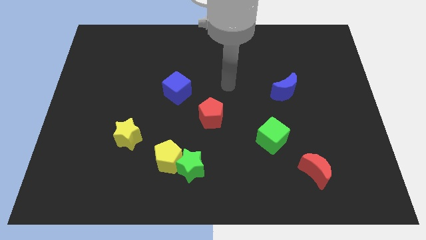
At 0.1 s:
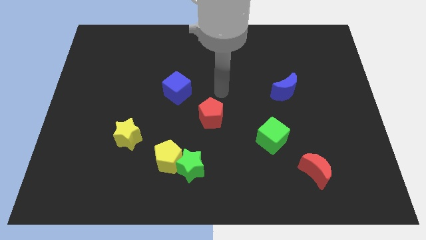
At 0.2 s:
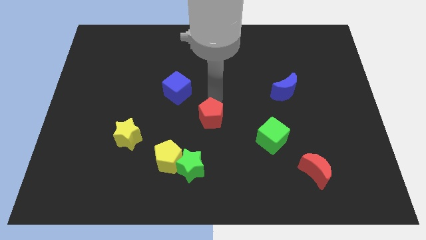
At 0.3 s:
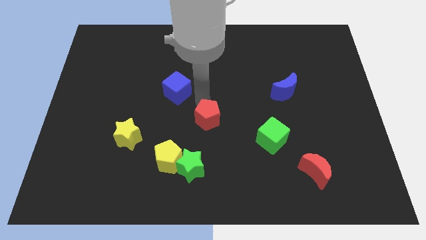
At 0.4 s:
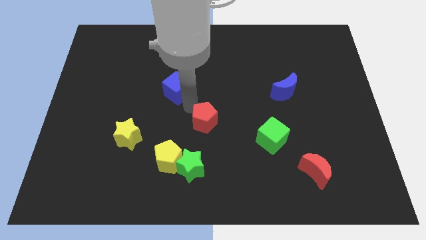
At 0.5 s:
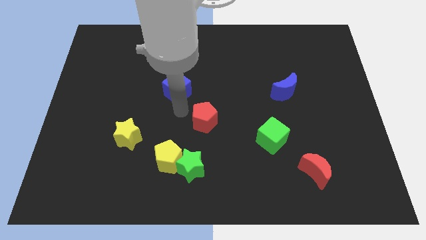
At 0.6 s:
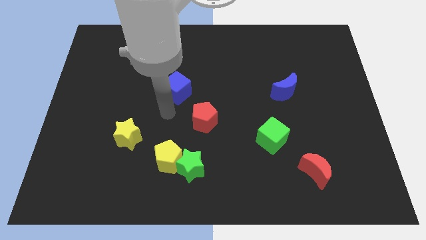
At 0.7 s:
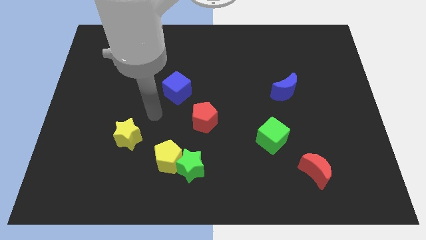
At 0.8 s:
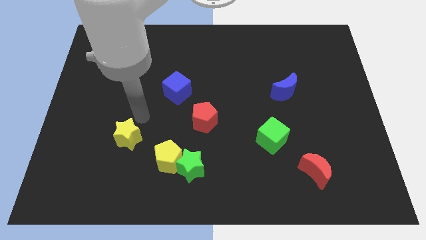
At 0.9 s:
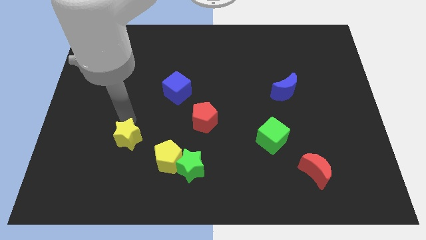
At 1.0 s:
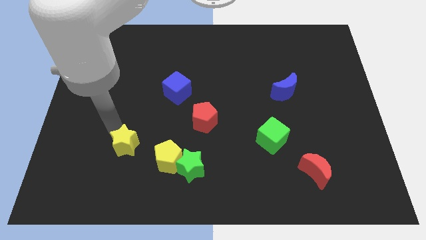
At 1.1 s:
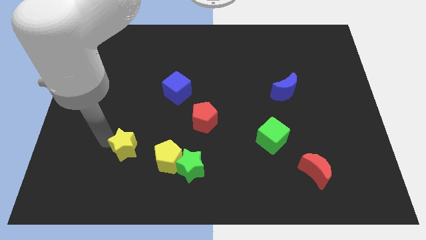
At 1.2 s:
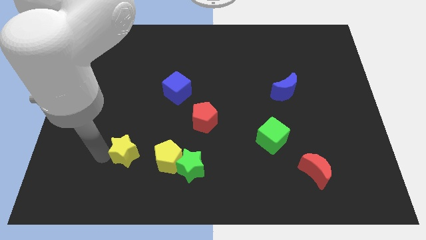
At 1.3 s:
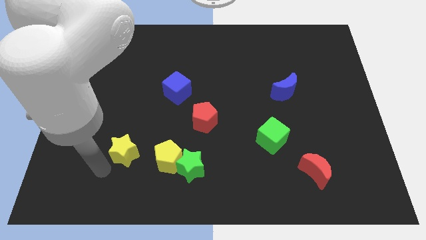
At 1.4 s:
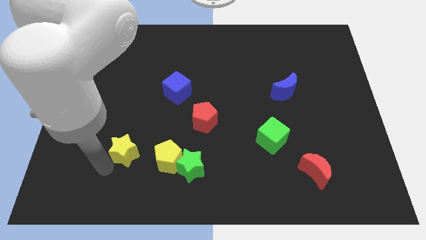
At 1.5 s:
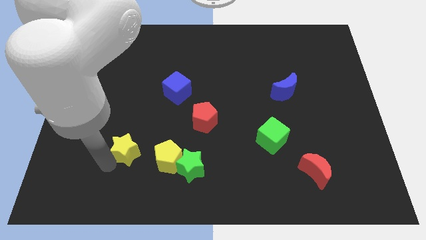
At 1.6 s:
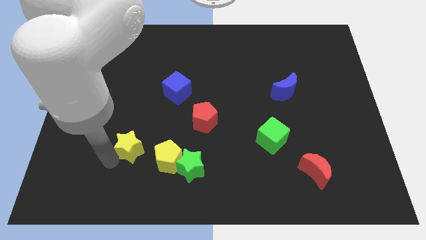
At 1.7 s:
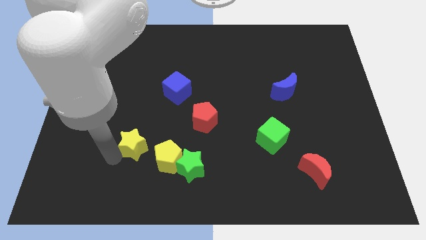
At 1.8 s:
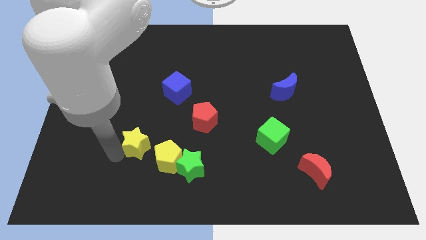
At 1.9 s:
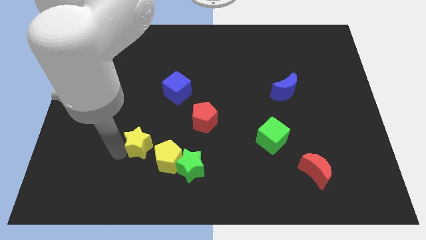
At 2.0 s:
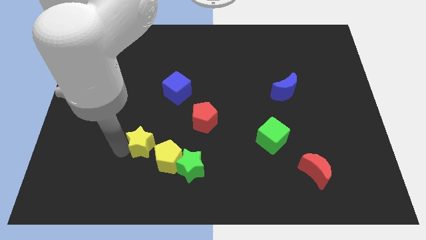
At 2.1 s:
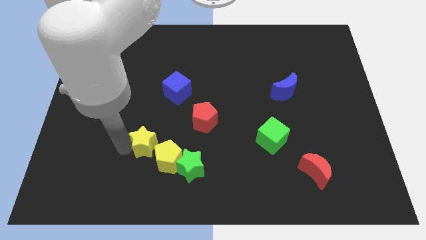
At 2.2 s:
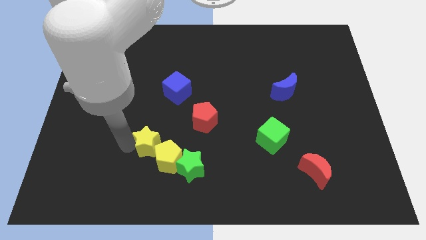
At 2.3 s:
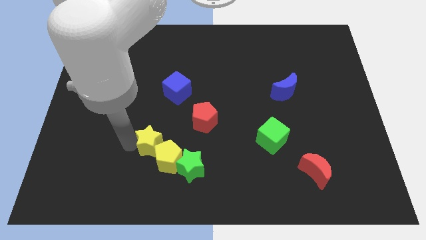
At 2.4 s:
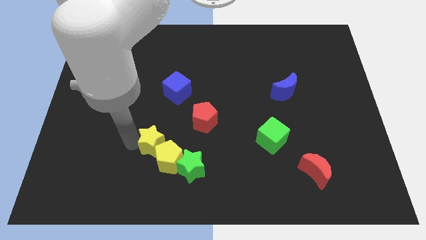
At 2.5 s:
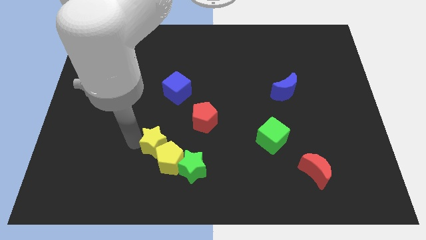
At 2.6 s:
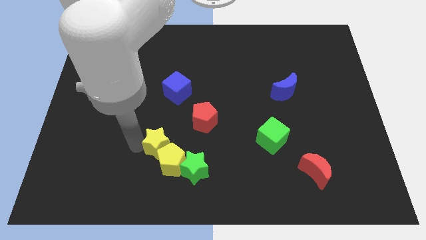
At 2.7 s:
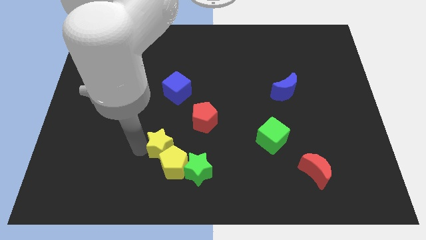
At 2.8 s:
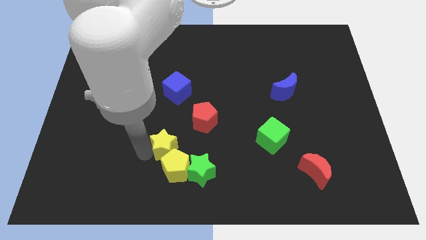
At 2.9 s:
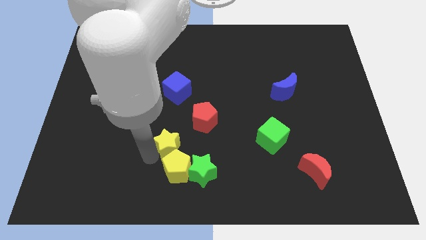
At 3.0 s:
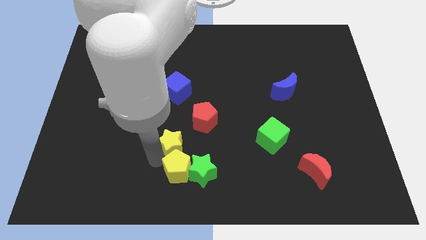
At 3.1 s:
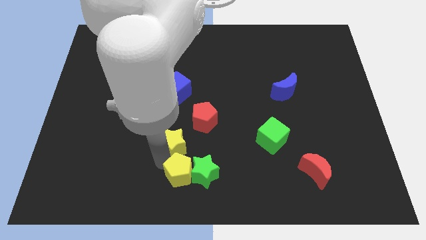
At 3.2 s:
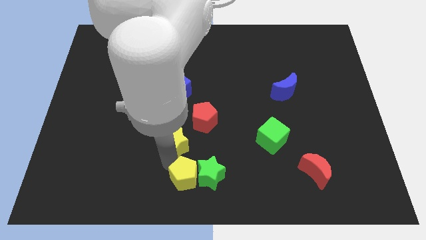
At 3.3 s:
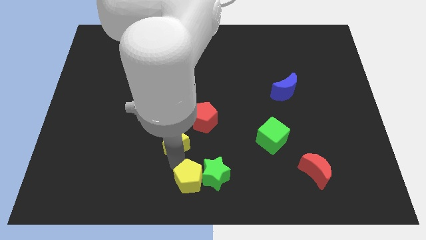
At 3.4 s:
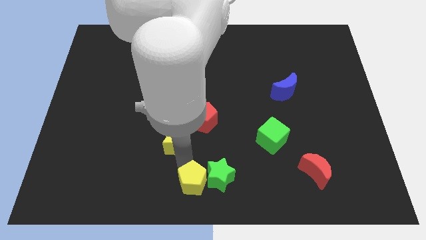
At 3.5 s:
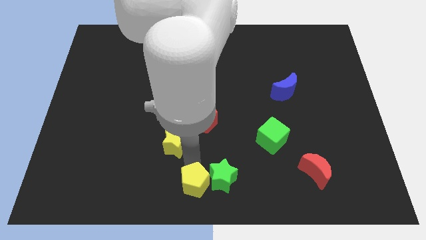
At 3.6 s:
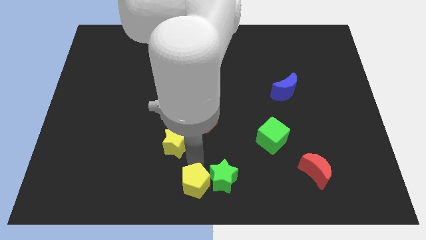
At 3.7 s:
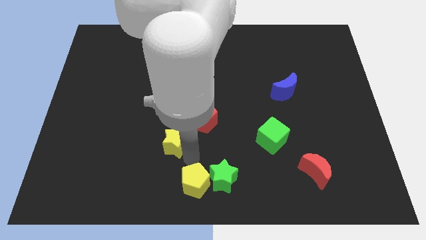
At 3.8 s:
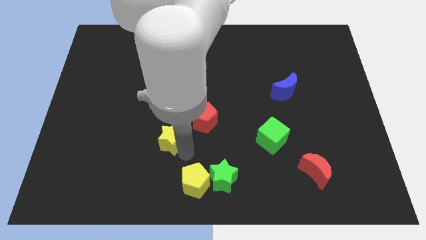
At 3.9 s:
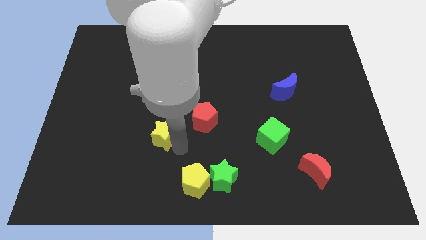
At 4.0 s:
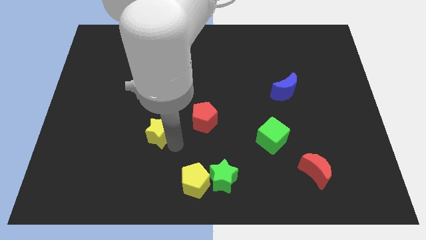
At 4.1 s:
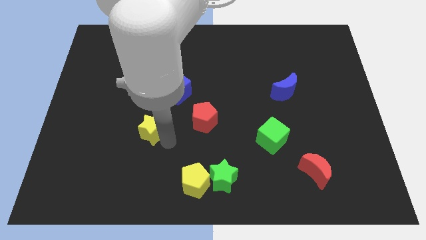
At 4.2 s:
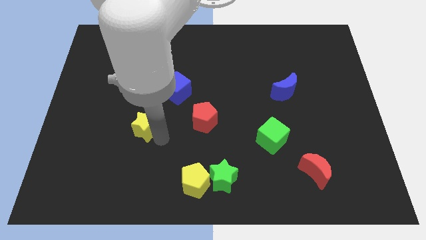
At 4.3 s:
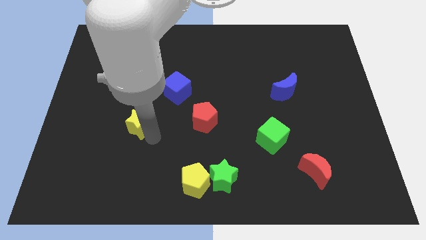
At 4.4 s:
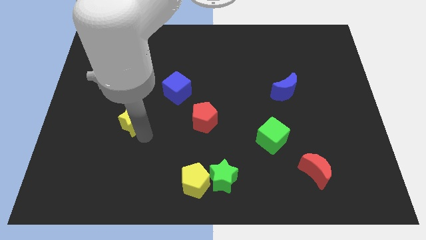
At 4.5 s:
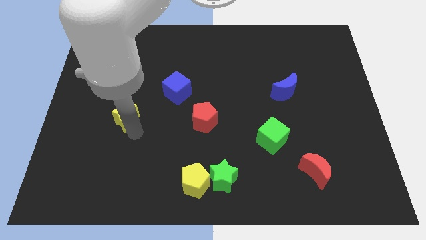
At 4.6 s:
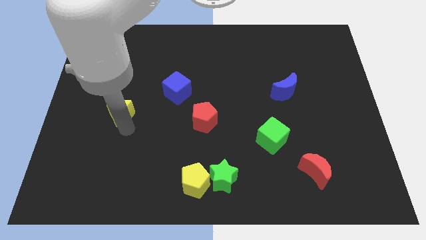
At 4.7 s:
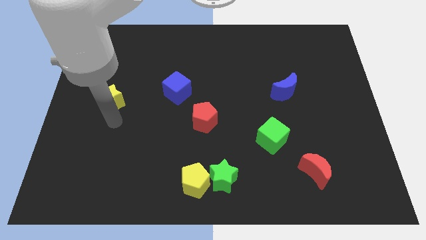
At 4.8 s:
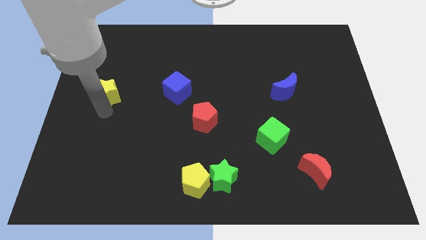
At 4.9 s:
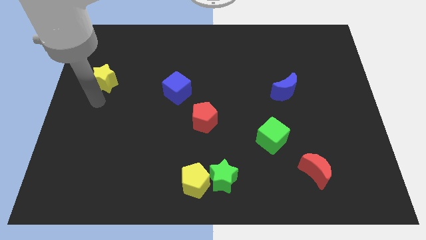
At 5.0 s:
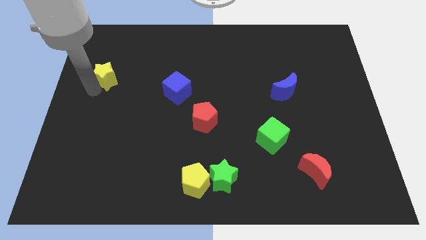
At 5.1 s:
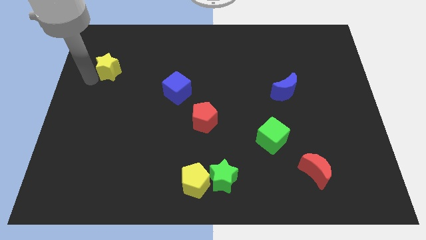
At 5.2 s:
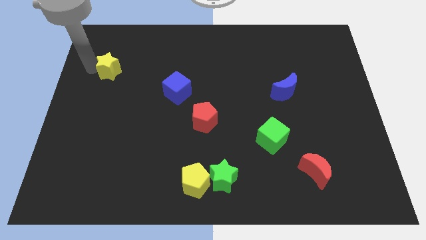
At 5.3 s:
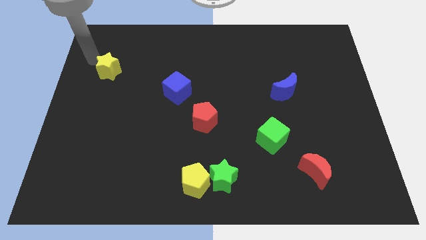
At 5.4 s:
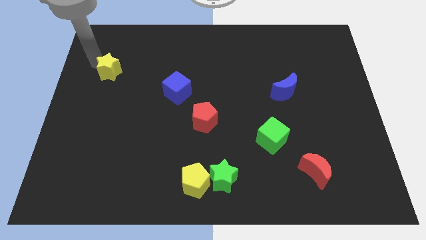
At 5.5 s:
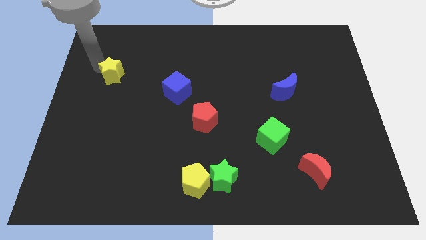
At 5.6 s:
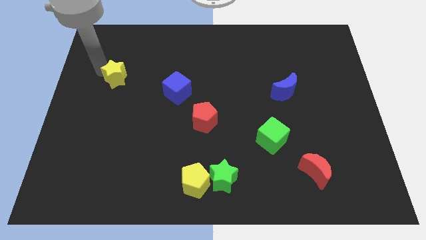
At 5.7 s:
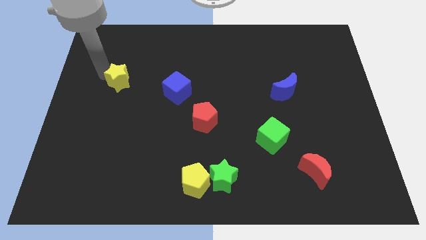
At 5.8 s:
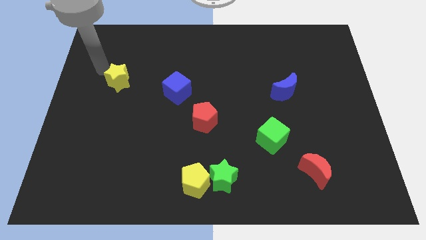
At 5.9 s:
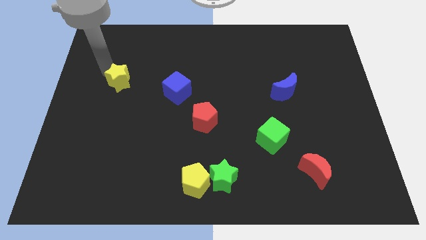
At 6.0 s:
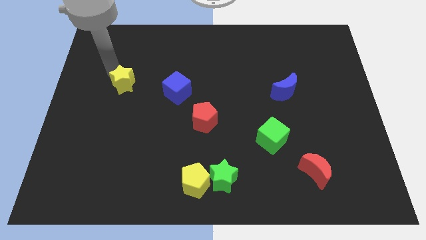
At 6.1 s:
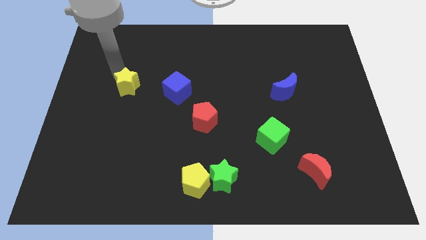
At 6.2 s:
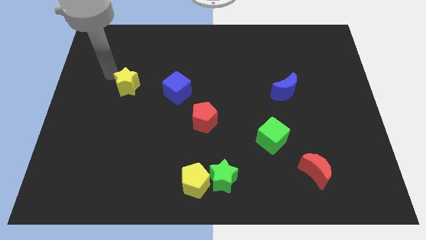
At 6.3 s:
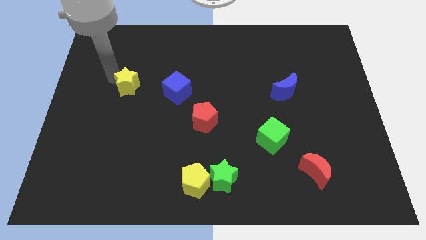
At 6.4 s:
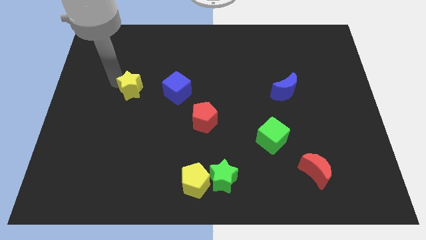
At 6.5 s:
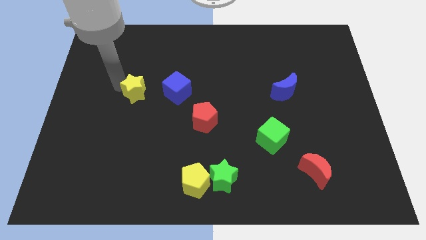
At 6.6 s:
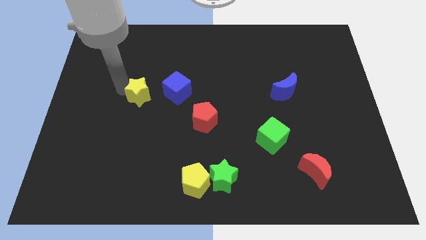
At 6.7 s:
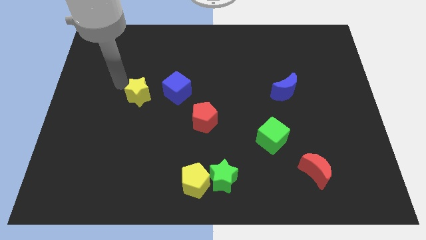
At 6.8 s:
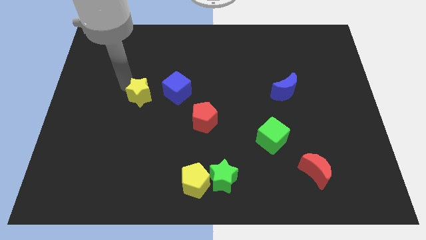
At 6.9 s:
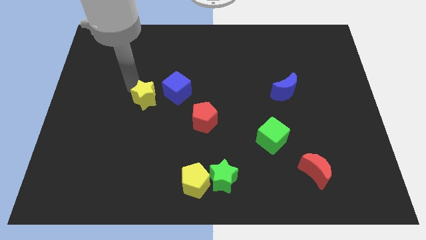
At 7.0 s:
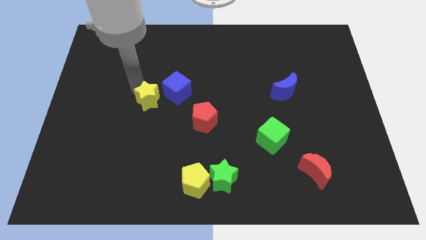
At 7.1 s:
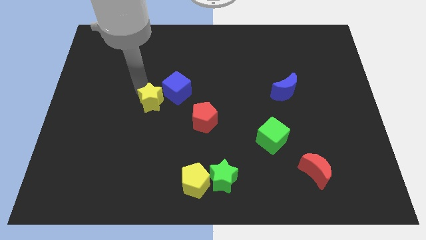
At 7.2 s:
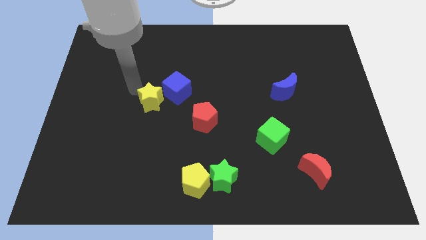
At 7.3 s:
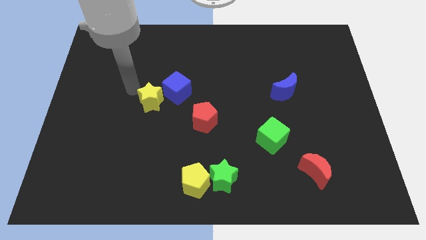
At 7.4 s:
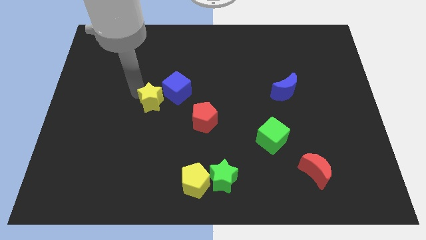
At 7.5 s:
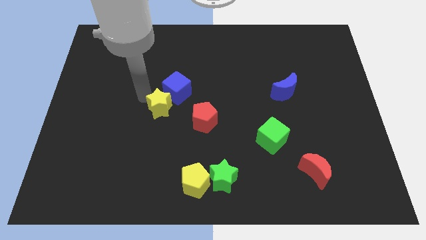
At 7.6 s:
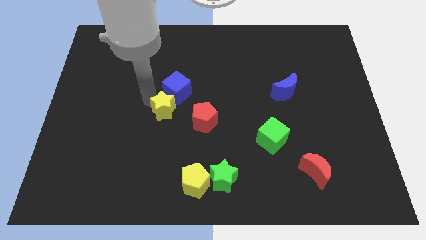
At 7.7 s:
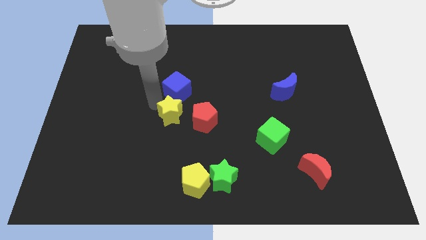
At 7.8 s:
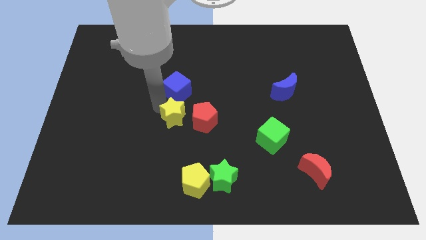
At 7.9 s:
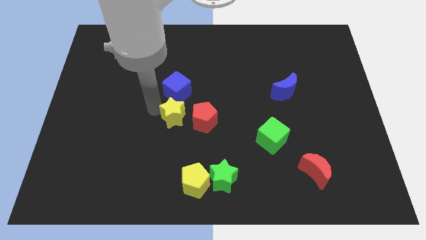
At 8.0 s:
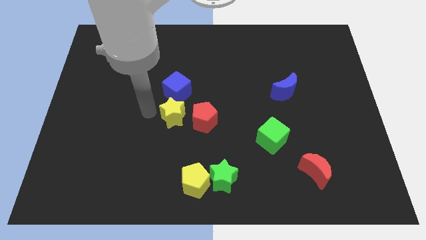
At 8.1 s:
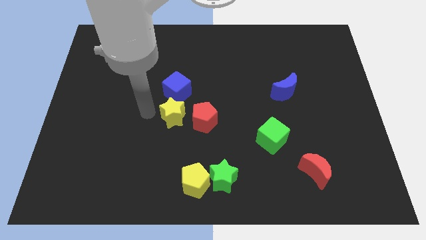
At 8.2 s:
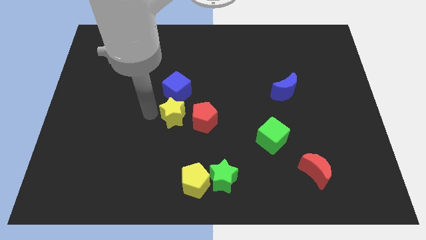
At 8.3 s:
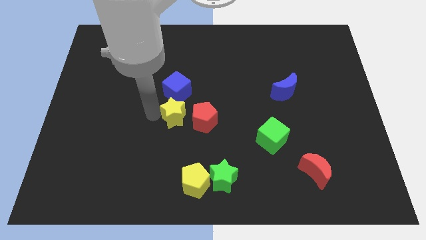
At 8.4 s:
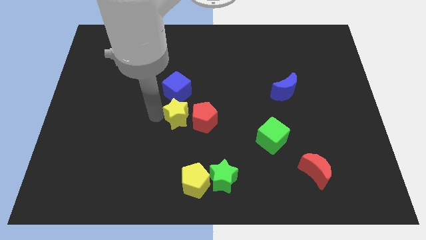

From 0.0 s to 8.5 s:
move the yellow star to the red pentagon
